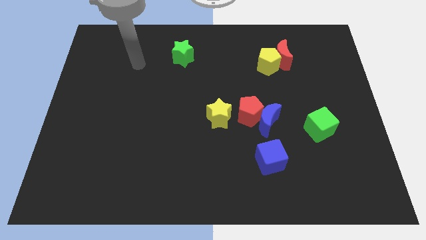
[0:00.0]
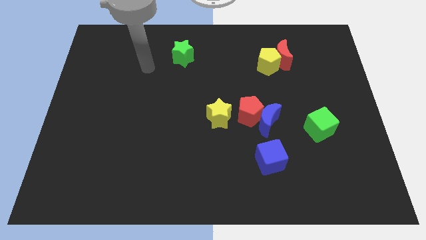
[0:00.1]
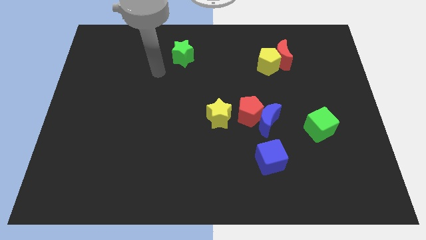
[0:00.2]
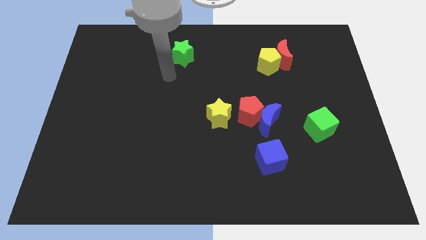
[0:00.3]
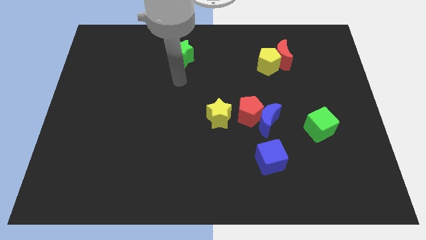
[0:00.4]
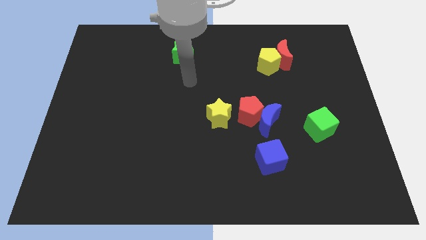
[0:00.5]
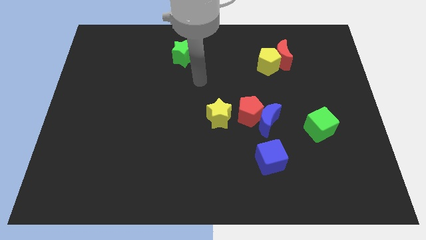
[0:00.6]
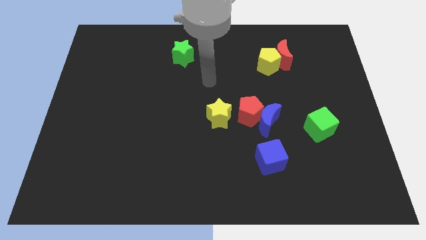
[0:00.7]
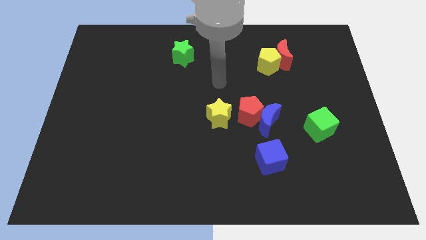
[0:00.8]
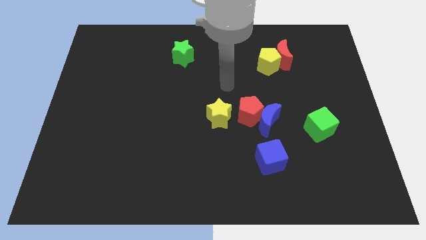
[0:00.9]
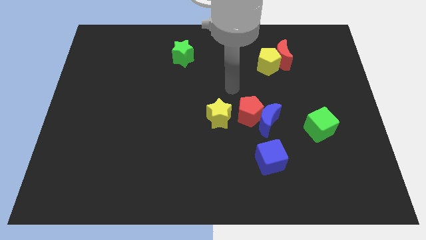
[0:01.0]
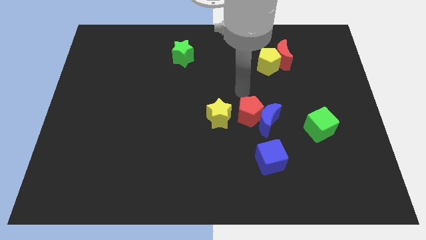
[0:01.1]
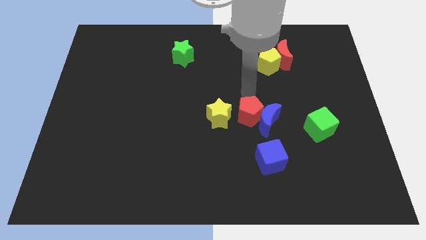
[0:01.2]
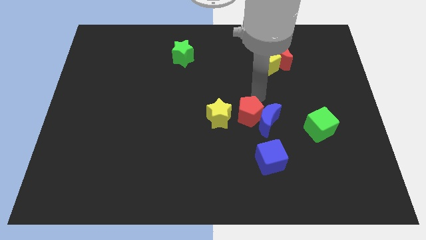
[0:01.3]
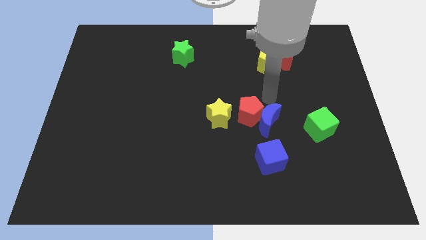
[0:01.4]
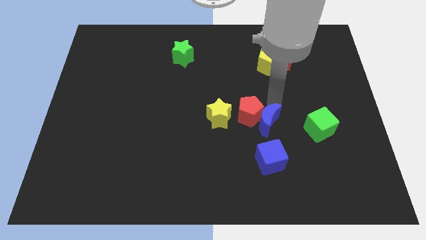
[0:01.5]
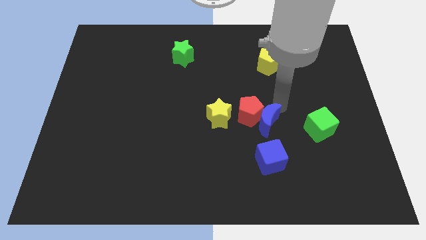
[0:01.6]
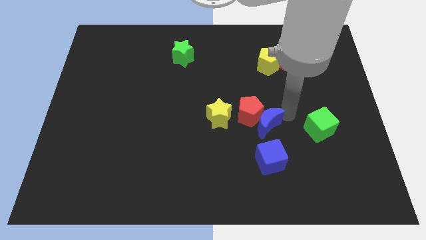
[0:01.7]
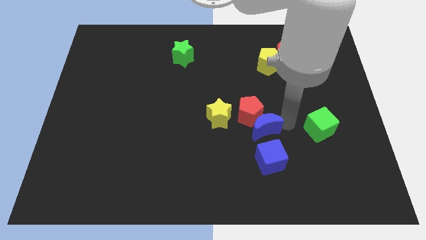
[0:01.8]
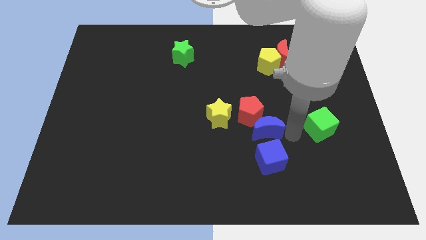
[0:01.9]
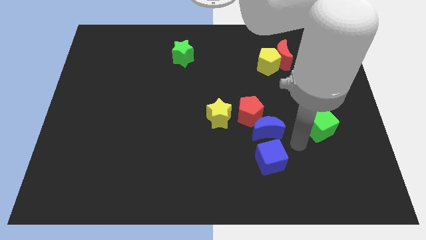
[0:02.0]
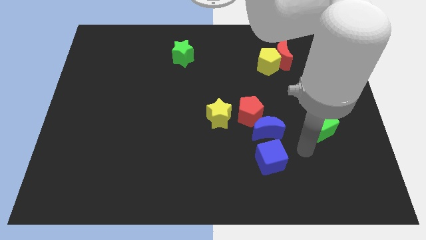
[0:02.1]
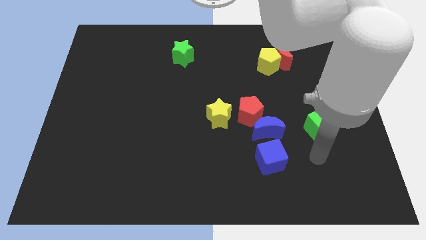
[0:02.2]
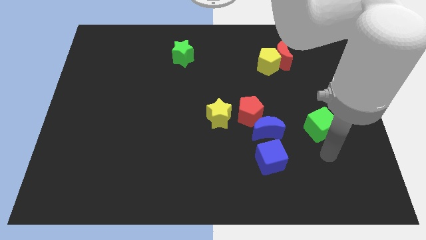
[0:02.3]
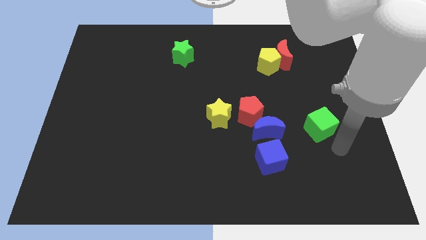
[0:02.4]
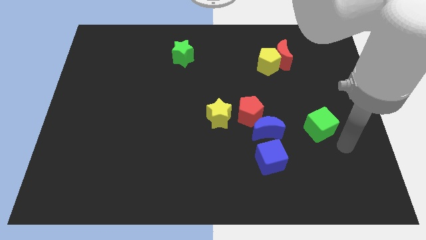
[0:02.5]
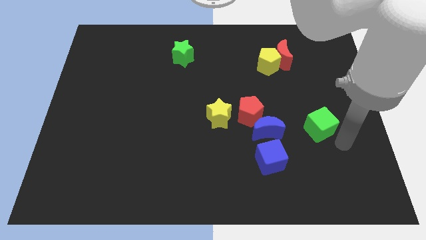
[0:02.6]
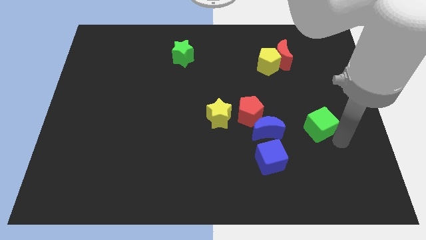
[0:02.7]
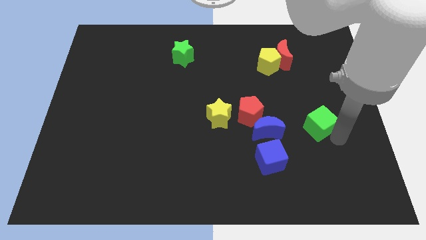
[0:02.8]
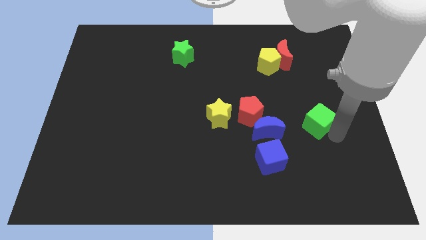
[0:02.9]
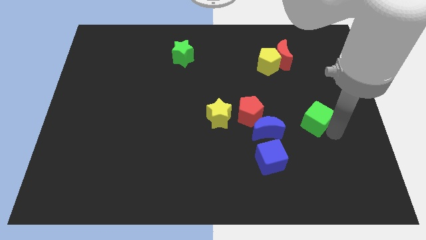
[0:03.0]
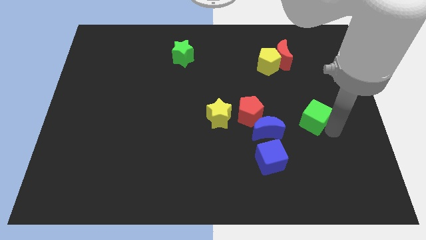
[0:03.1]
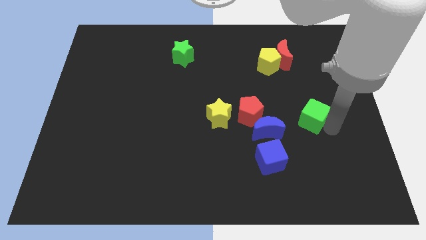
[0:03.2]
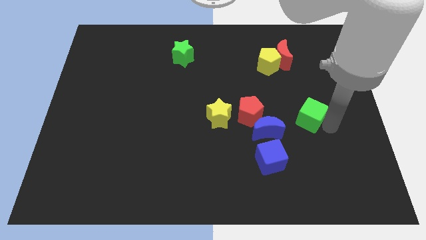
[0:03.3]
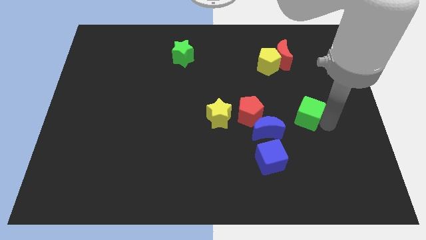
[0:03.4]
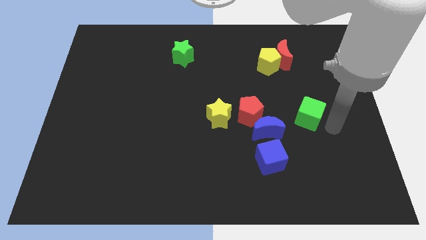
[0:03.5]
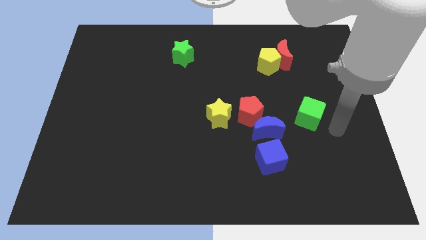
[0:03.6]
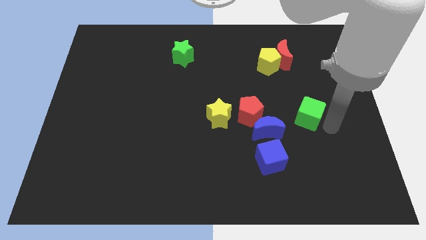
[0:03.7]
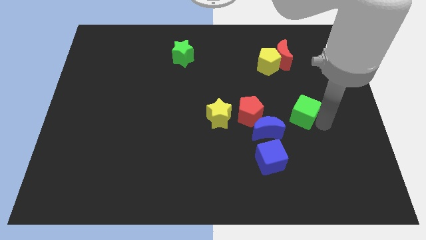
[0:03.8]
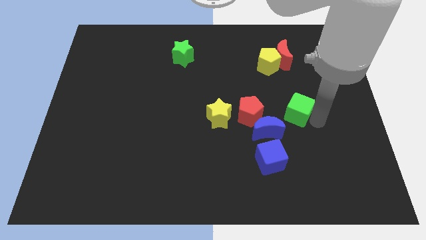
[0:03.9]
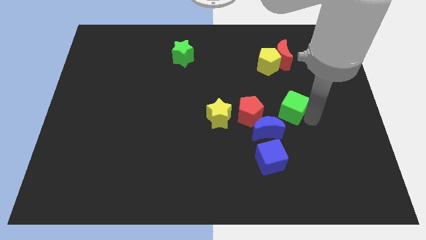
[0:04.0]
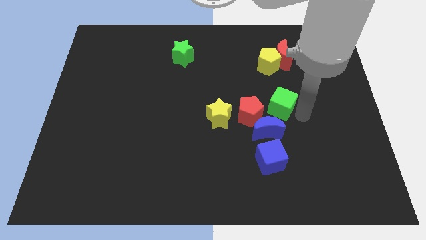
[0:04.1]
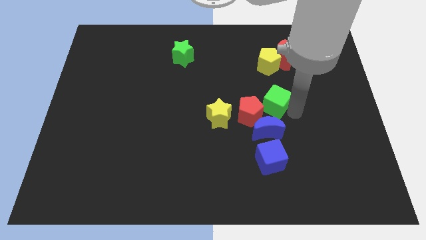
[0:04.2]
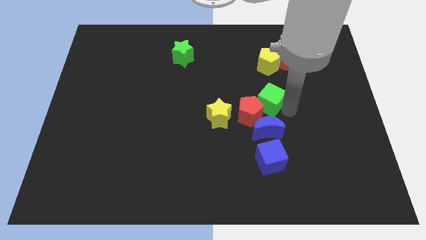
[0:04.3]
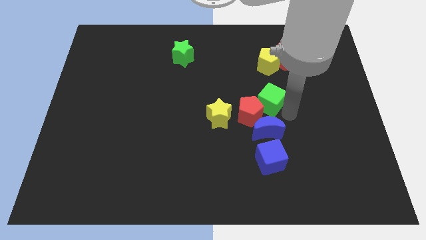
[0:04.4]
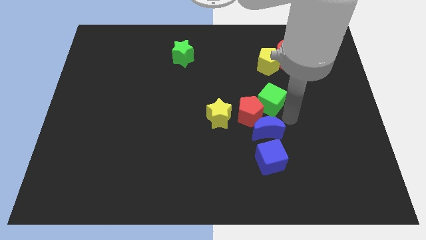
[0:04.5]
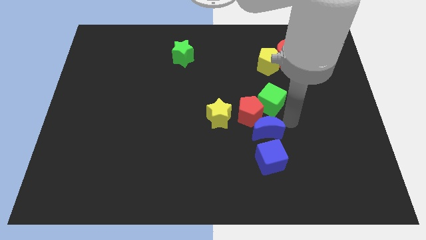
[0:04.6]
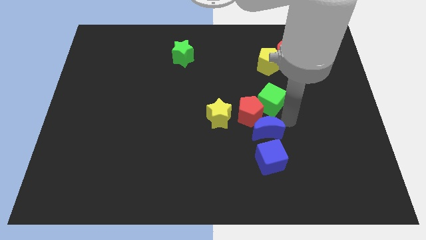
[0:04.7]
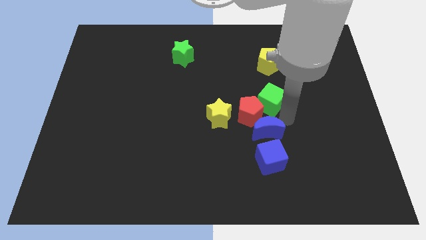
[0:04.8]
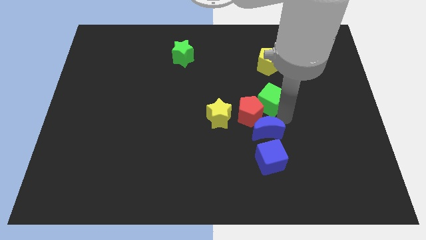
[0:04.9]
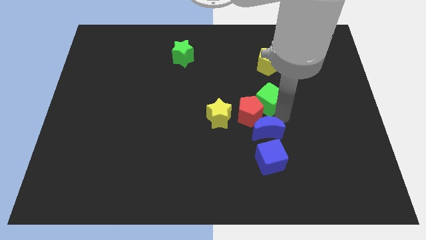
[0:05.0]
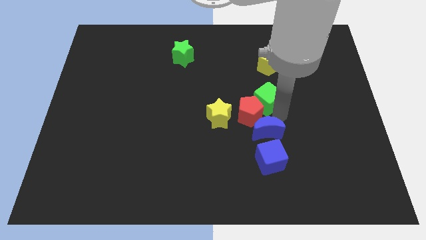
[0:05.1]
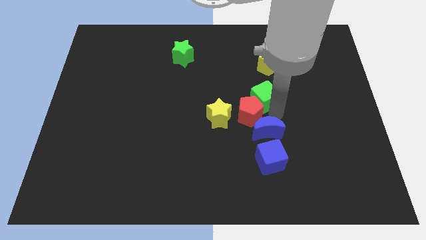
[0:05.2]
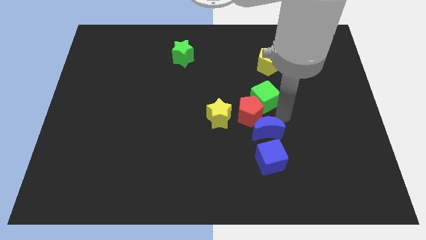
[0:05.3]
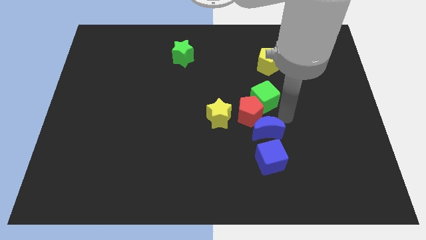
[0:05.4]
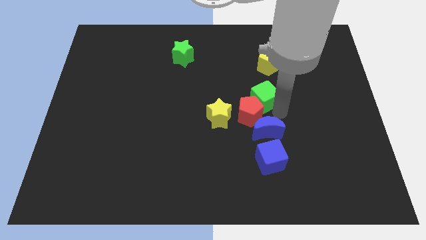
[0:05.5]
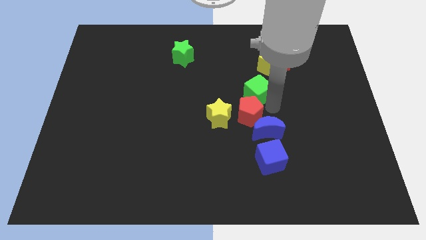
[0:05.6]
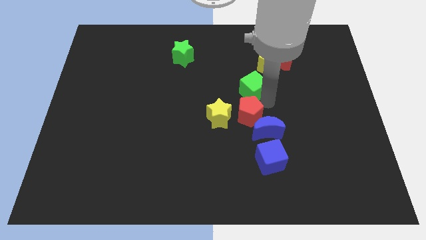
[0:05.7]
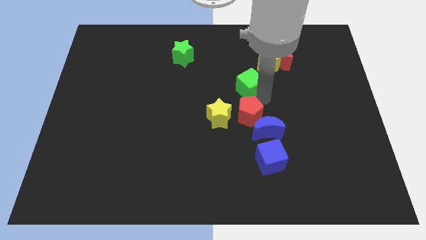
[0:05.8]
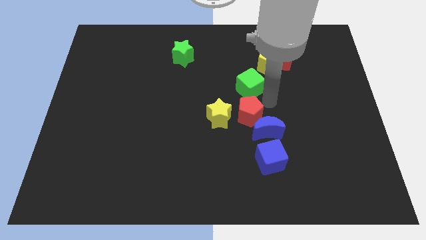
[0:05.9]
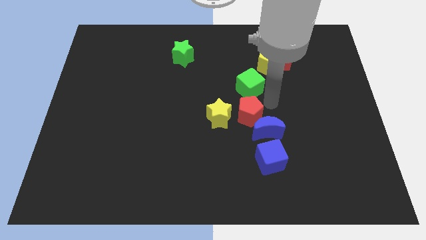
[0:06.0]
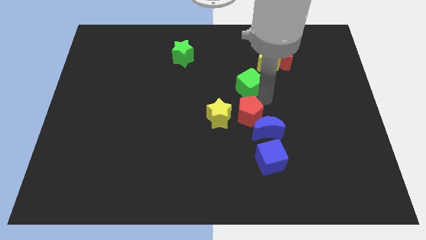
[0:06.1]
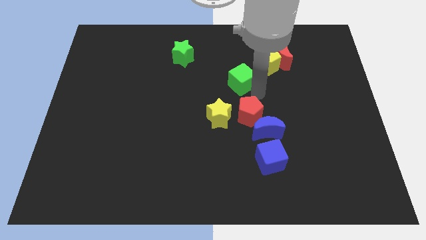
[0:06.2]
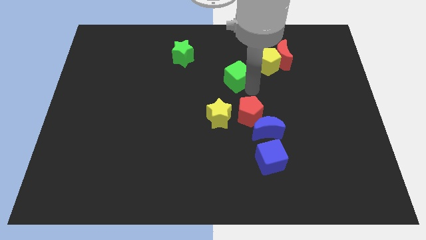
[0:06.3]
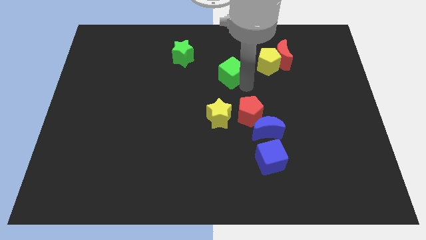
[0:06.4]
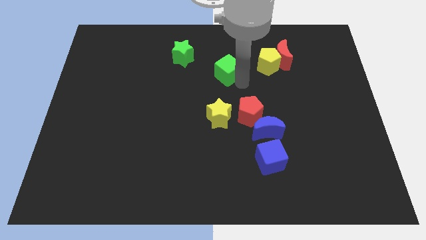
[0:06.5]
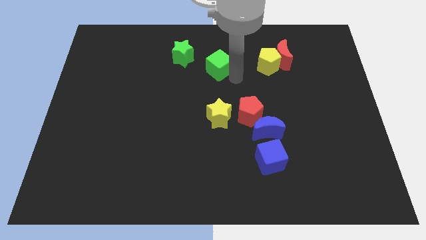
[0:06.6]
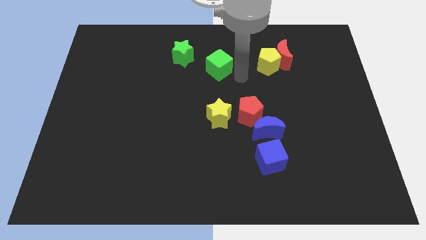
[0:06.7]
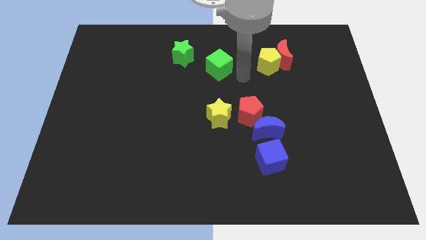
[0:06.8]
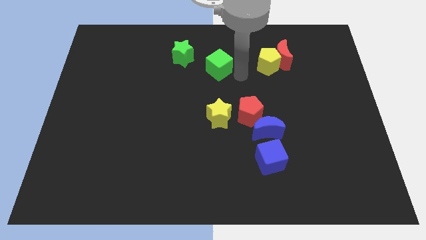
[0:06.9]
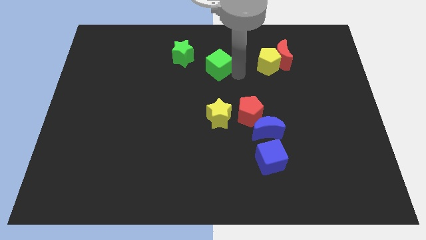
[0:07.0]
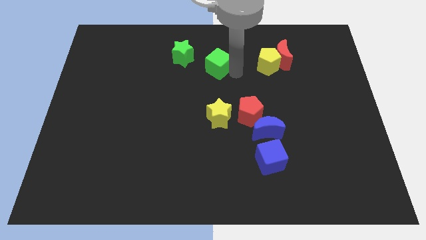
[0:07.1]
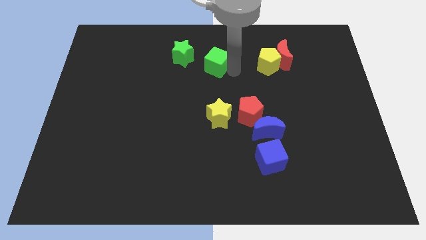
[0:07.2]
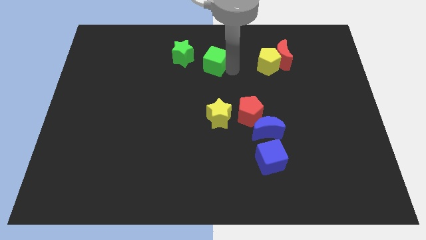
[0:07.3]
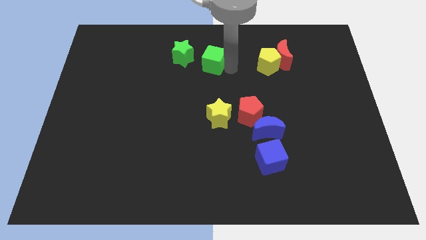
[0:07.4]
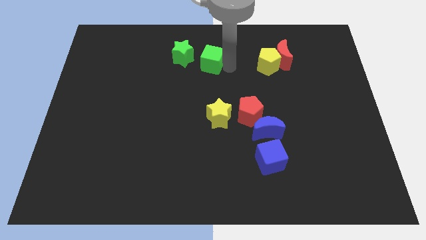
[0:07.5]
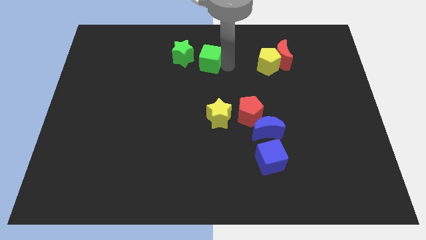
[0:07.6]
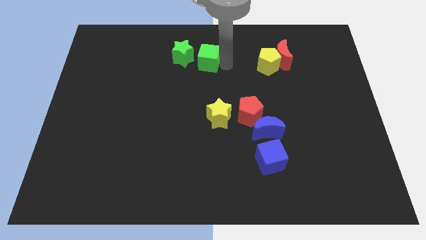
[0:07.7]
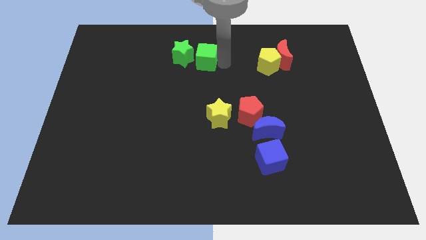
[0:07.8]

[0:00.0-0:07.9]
put the green cube next to the green star

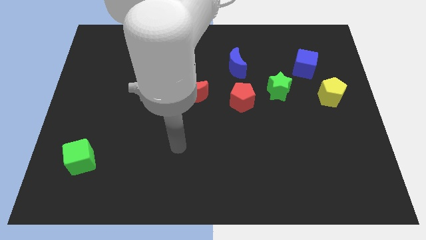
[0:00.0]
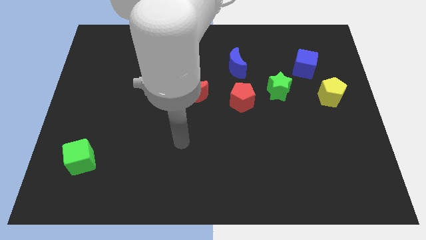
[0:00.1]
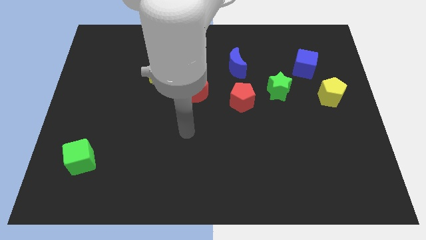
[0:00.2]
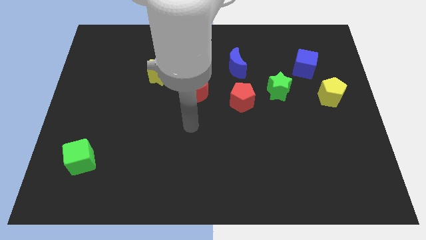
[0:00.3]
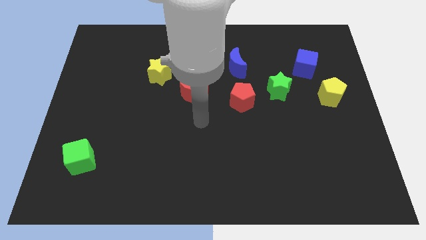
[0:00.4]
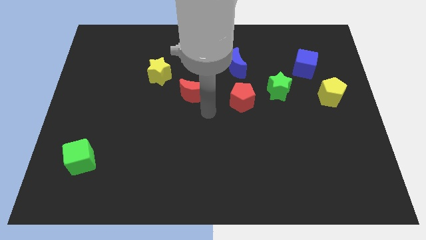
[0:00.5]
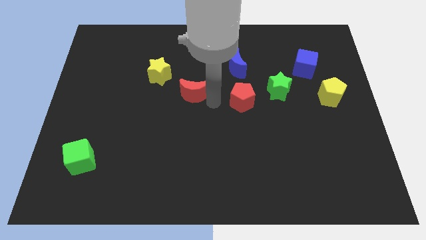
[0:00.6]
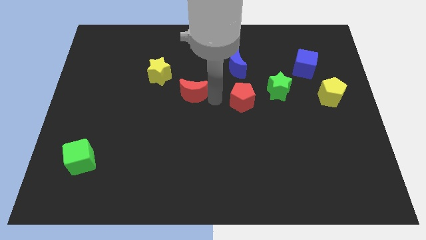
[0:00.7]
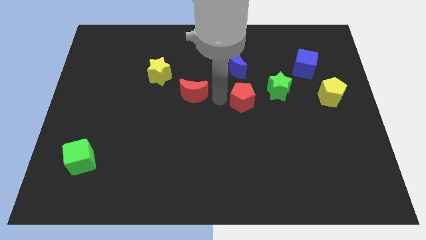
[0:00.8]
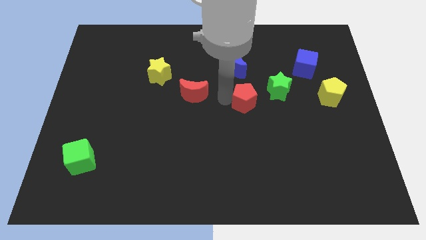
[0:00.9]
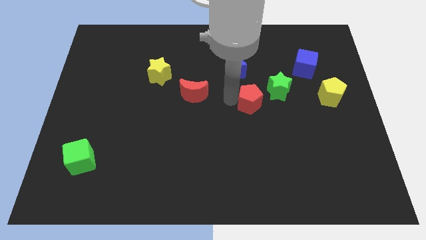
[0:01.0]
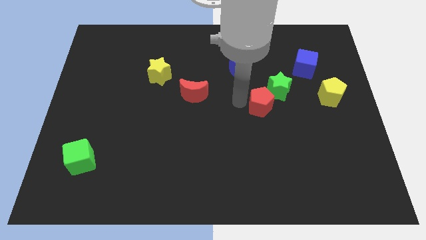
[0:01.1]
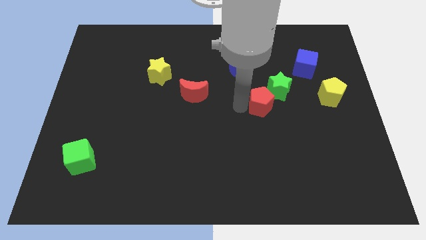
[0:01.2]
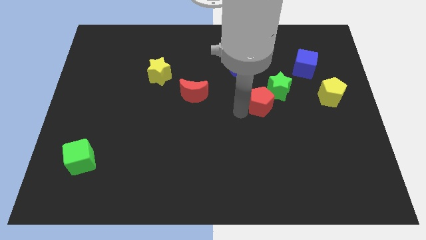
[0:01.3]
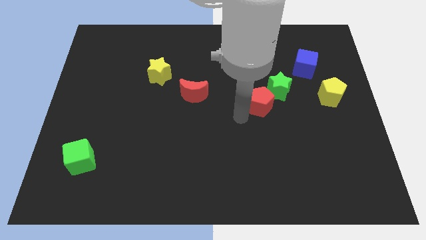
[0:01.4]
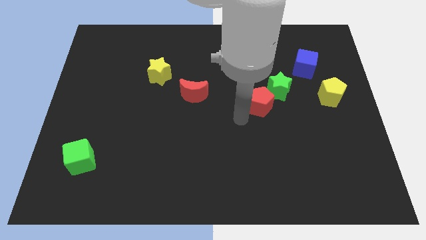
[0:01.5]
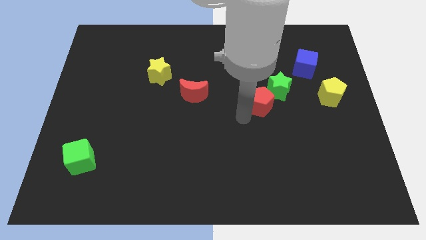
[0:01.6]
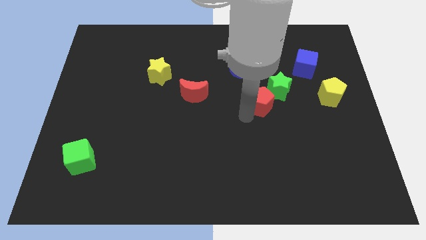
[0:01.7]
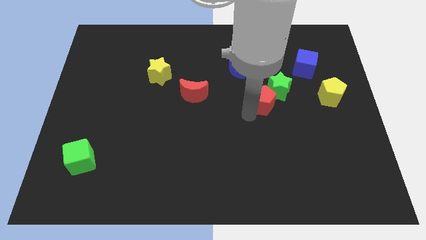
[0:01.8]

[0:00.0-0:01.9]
push the red pentagon close to the green star
